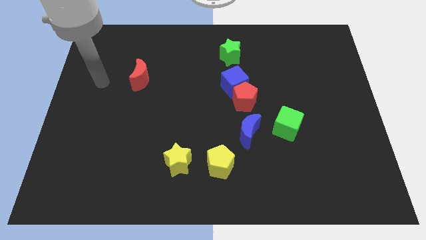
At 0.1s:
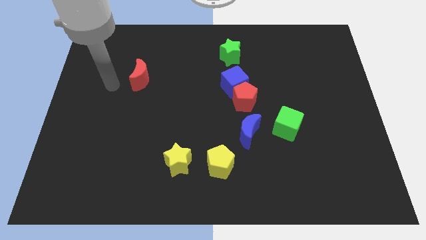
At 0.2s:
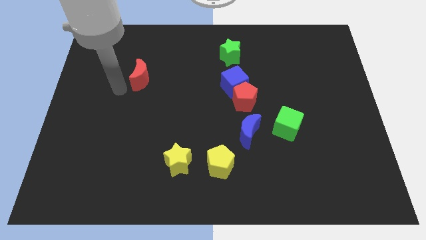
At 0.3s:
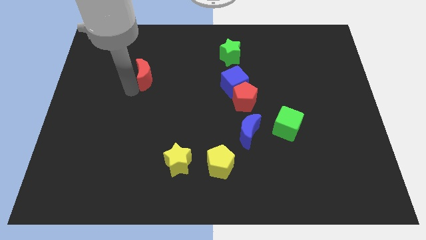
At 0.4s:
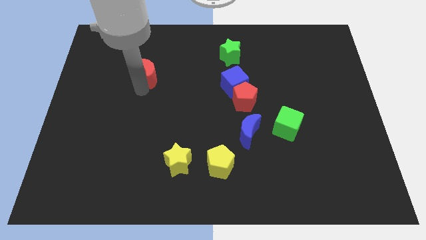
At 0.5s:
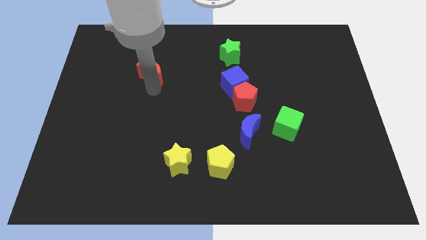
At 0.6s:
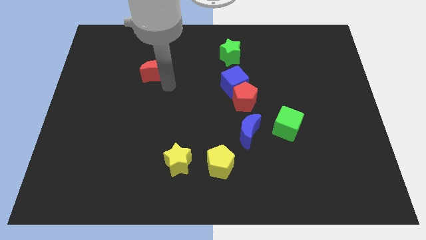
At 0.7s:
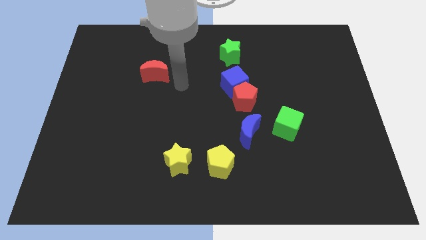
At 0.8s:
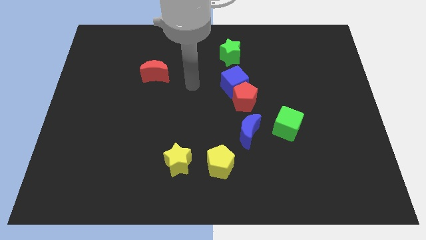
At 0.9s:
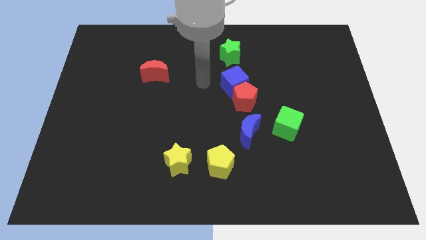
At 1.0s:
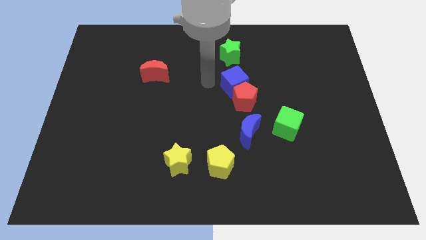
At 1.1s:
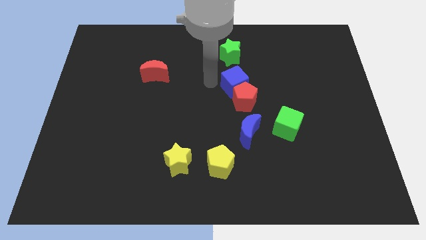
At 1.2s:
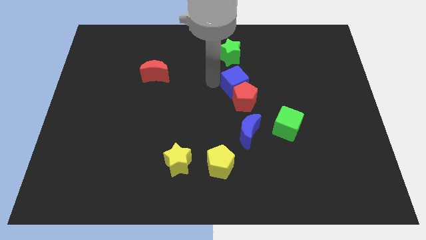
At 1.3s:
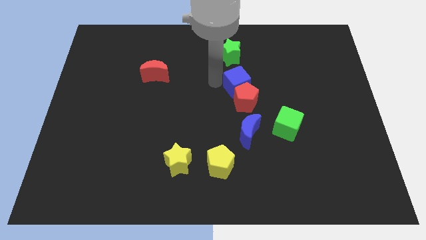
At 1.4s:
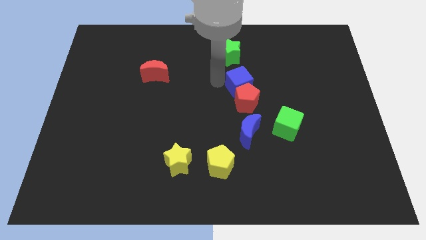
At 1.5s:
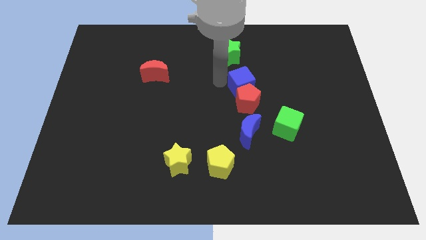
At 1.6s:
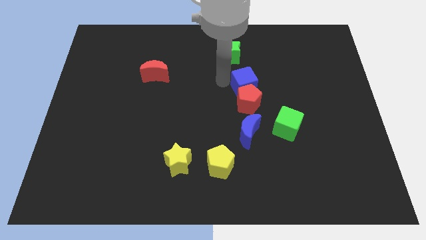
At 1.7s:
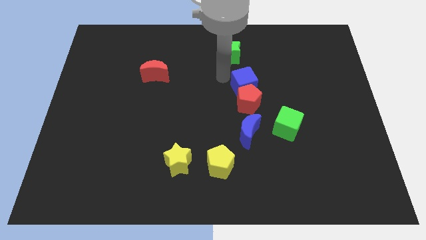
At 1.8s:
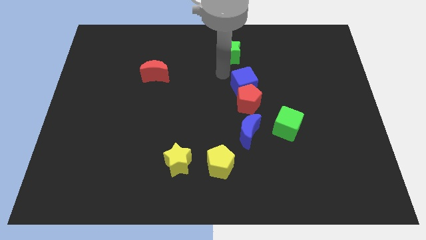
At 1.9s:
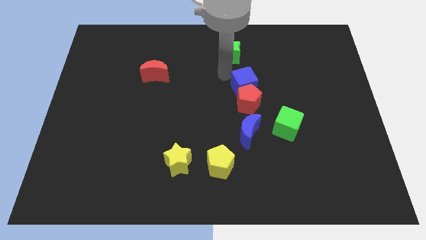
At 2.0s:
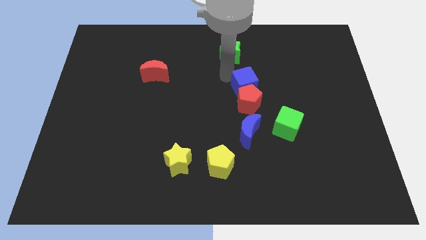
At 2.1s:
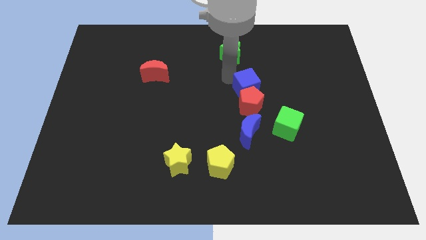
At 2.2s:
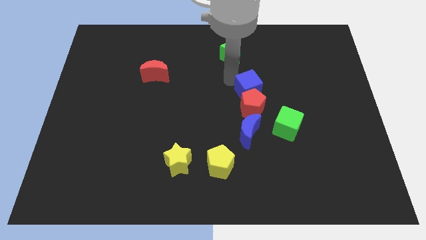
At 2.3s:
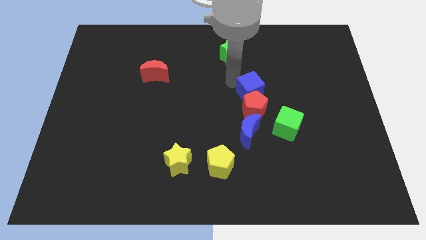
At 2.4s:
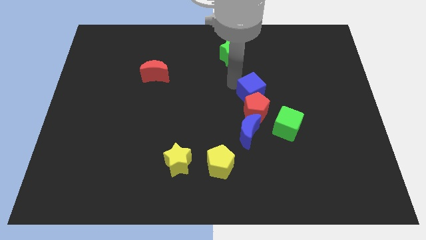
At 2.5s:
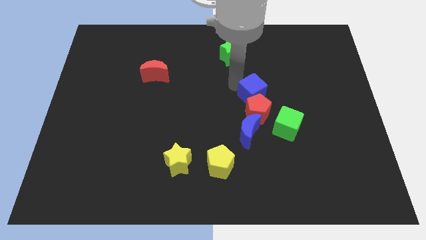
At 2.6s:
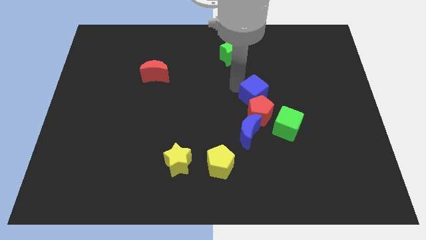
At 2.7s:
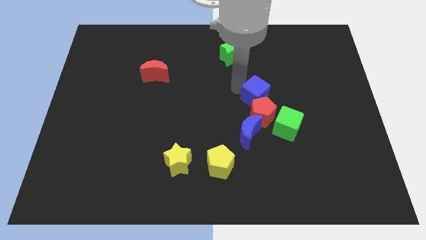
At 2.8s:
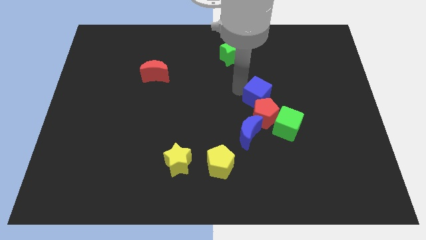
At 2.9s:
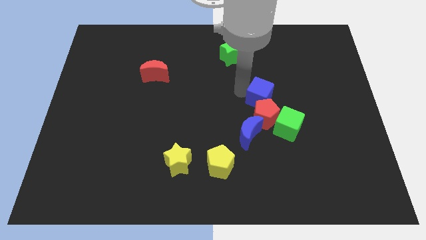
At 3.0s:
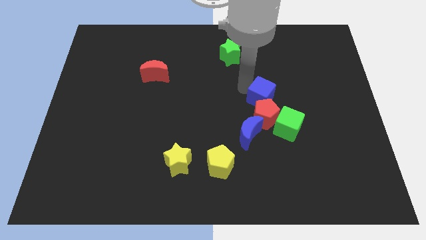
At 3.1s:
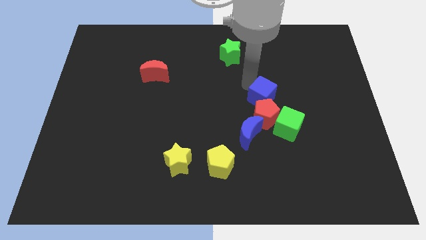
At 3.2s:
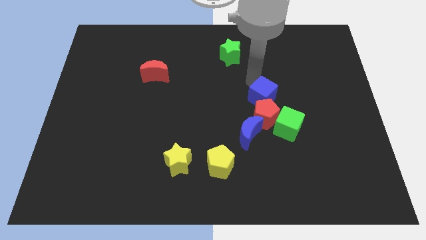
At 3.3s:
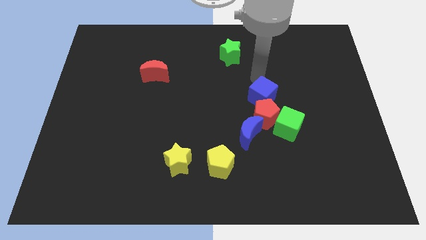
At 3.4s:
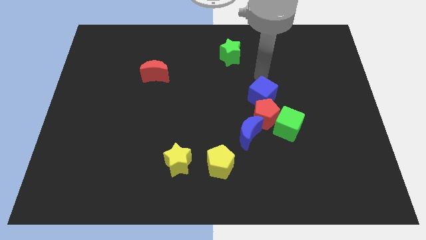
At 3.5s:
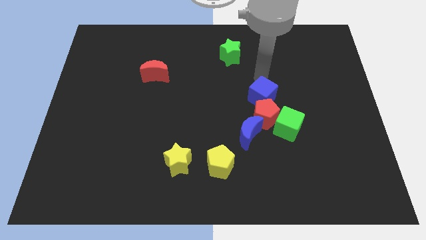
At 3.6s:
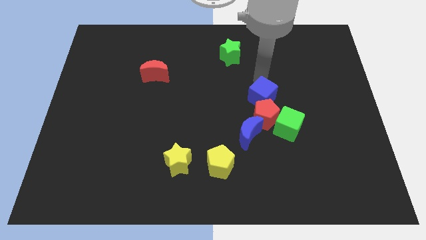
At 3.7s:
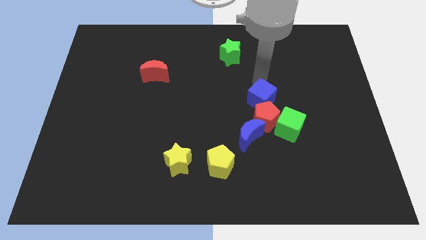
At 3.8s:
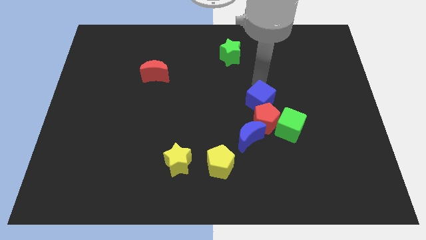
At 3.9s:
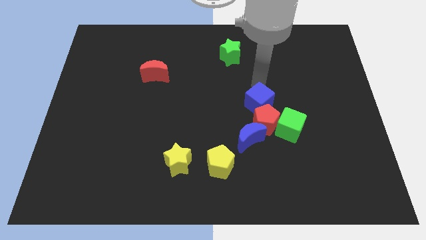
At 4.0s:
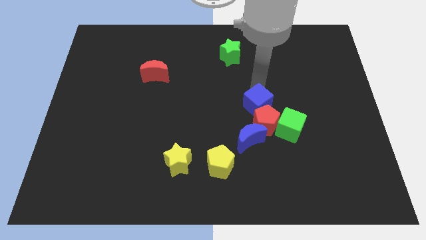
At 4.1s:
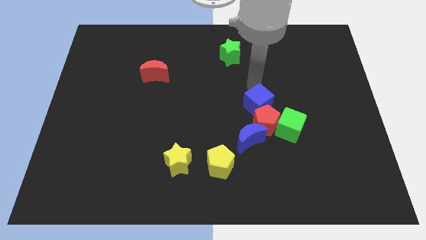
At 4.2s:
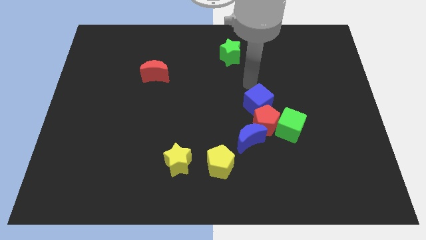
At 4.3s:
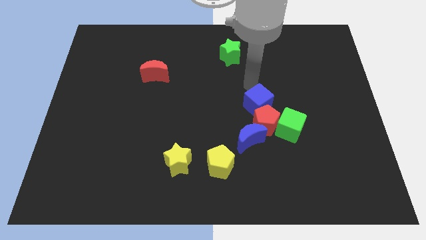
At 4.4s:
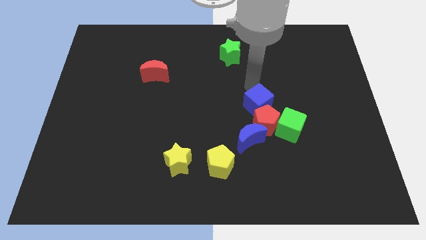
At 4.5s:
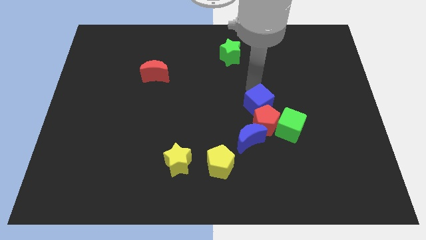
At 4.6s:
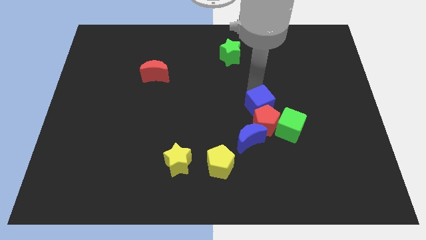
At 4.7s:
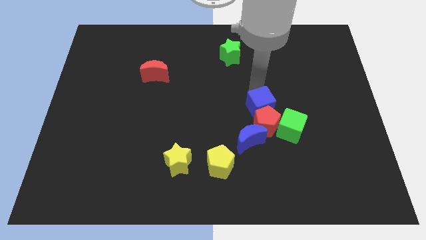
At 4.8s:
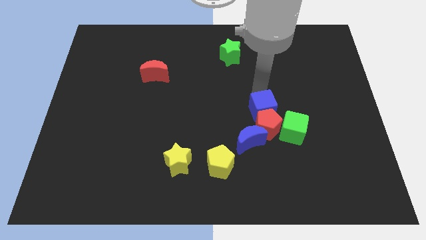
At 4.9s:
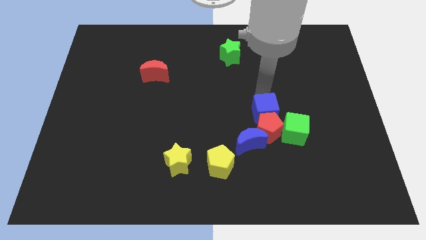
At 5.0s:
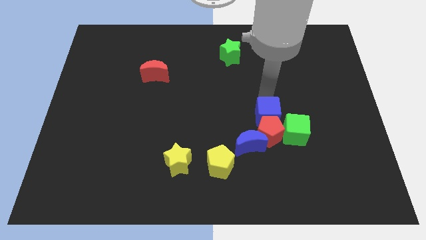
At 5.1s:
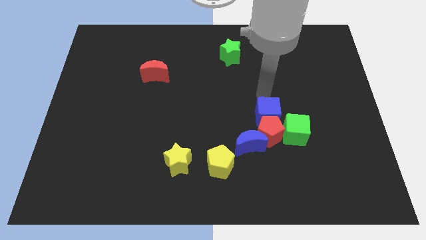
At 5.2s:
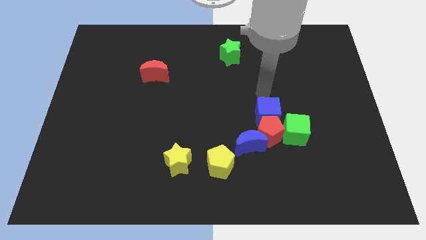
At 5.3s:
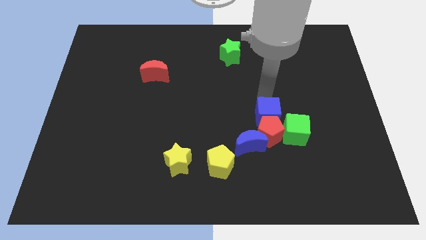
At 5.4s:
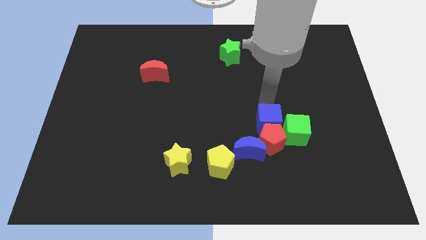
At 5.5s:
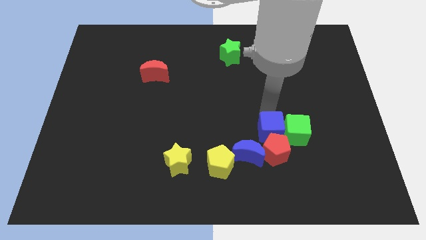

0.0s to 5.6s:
put the blue cube diagonally down and to the left of the green cube

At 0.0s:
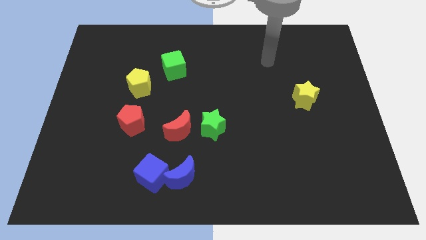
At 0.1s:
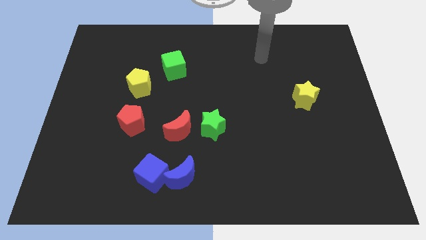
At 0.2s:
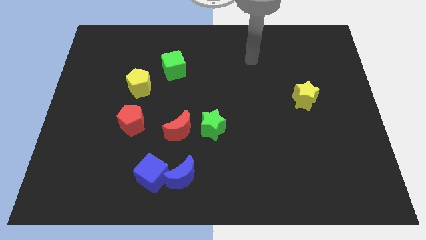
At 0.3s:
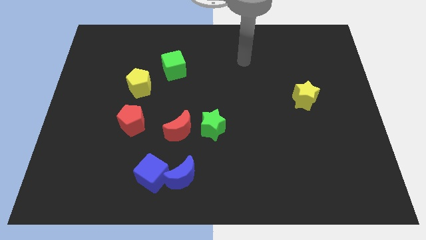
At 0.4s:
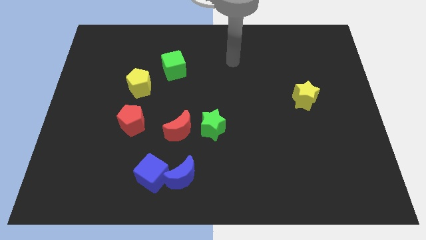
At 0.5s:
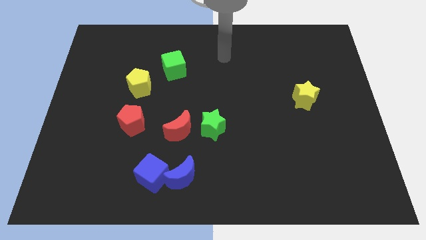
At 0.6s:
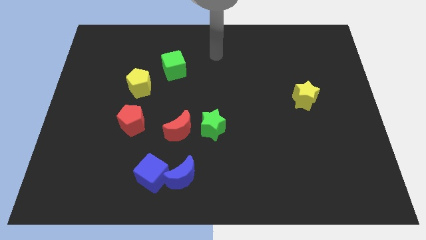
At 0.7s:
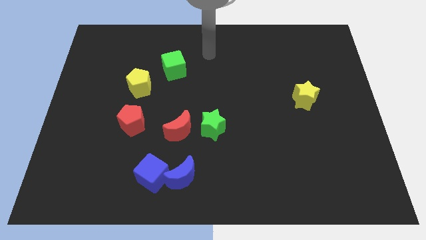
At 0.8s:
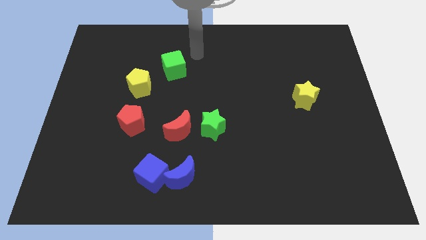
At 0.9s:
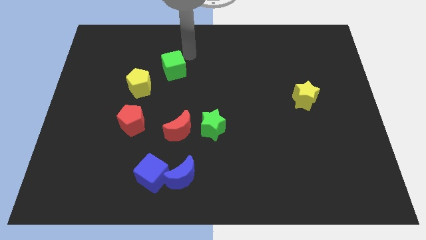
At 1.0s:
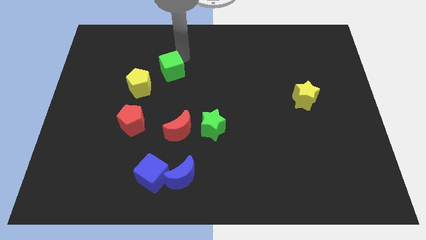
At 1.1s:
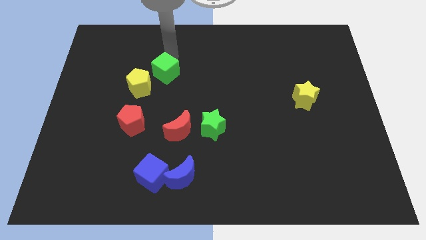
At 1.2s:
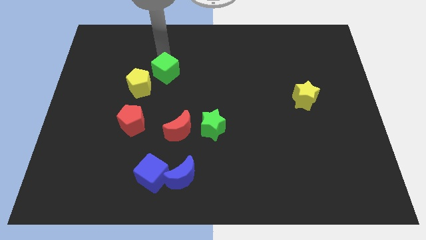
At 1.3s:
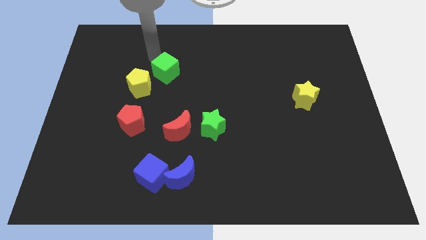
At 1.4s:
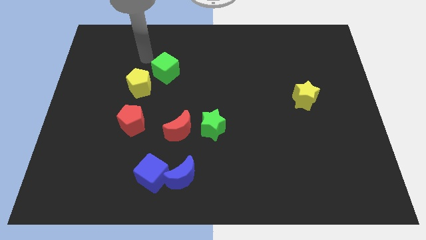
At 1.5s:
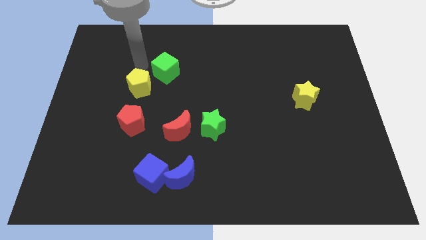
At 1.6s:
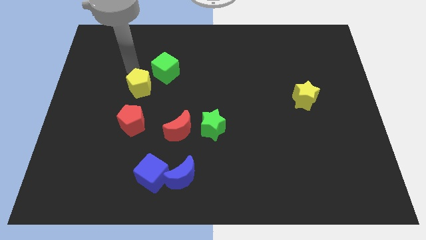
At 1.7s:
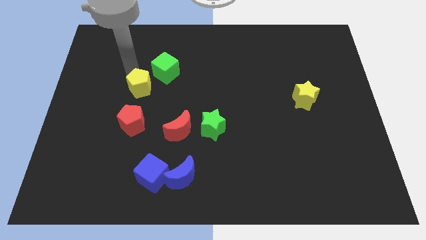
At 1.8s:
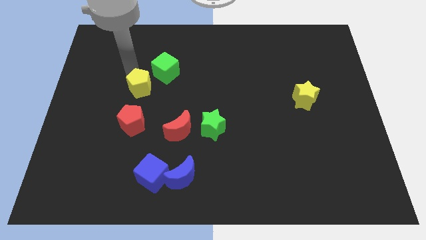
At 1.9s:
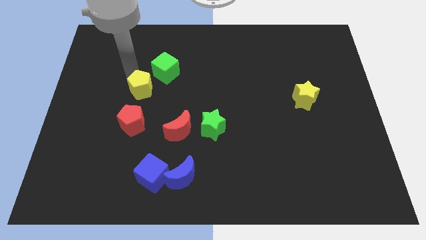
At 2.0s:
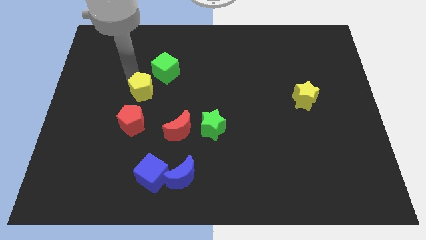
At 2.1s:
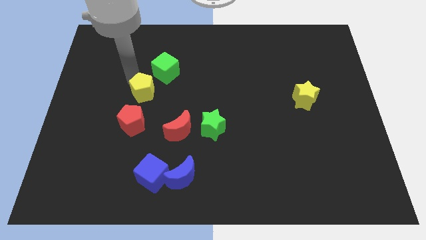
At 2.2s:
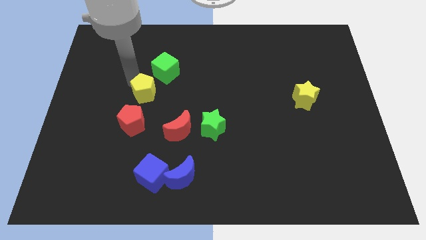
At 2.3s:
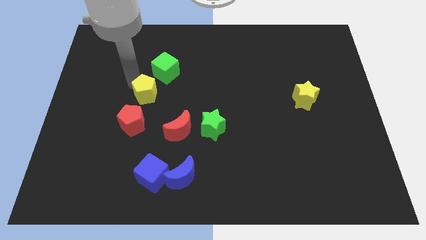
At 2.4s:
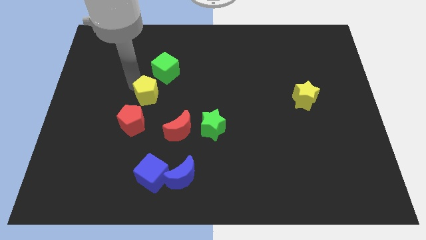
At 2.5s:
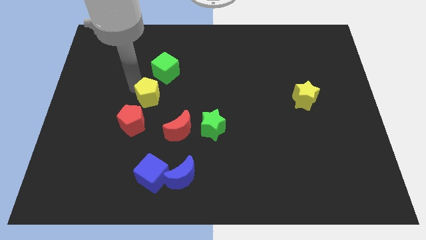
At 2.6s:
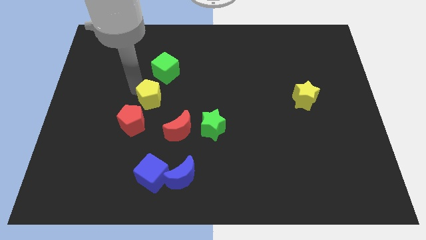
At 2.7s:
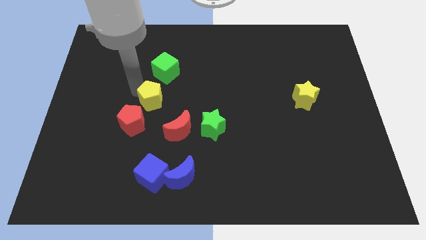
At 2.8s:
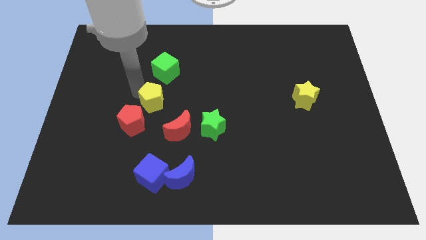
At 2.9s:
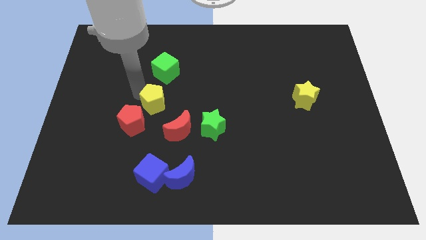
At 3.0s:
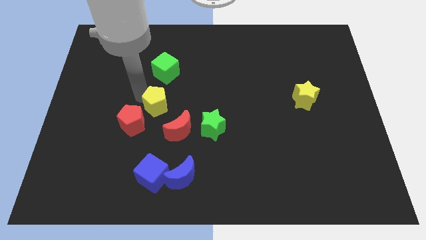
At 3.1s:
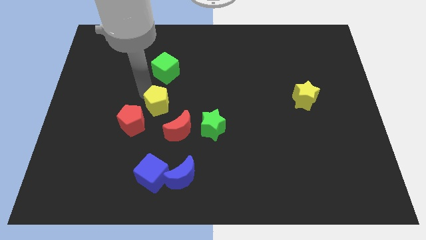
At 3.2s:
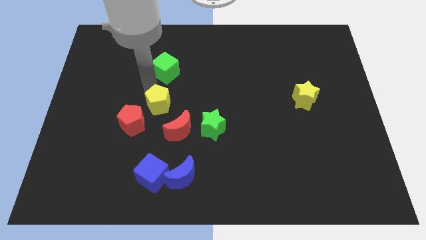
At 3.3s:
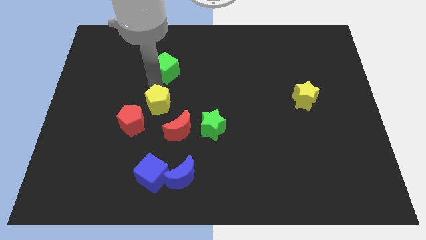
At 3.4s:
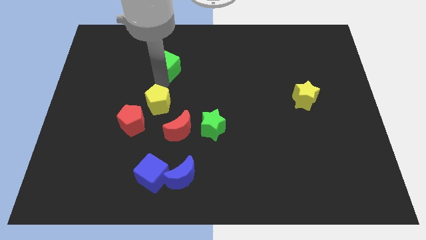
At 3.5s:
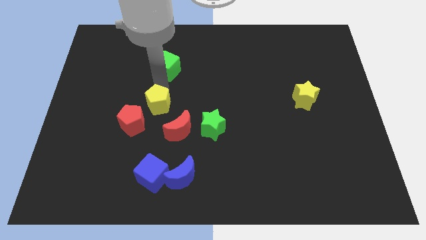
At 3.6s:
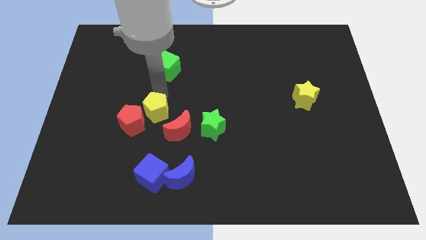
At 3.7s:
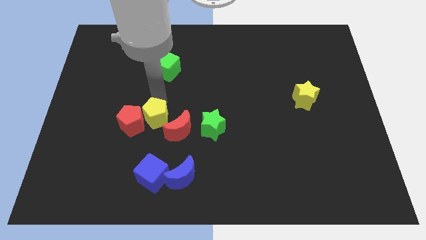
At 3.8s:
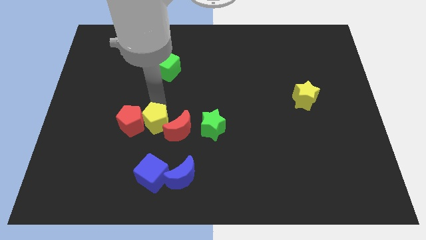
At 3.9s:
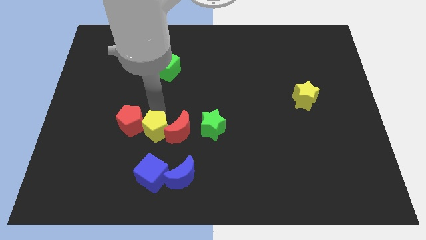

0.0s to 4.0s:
move the yellow pentagon to the bottom left of the red moon
